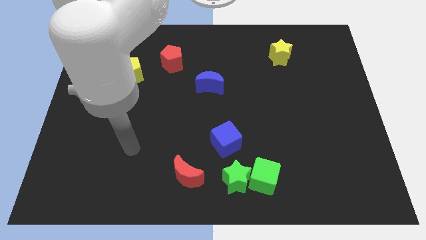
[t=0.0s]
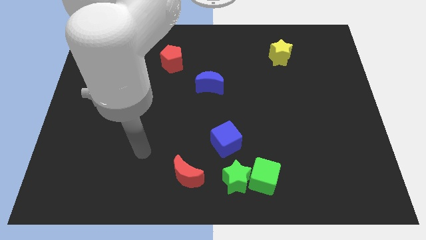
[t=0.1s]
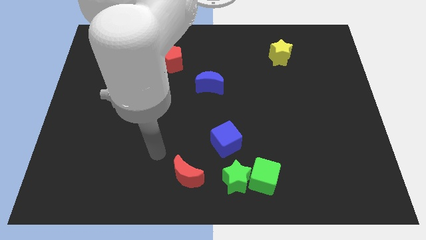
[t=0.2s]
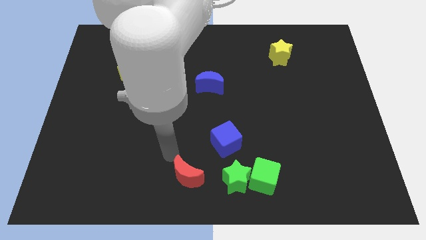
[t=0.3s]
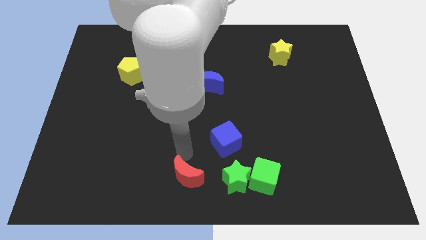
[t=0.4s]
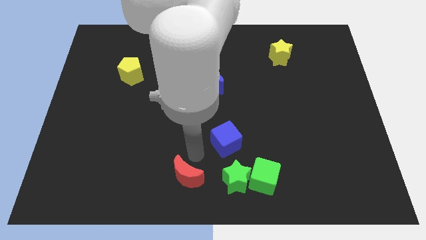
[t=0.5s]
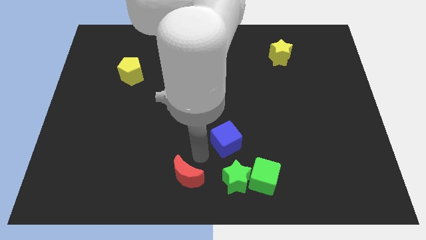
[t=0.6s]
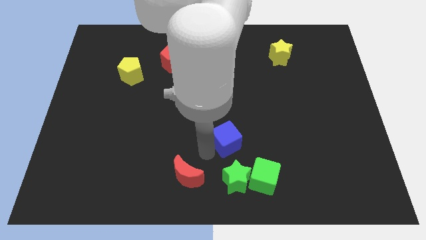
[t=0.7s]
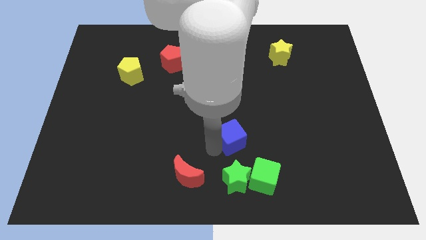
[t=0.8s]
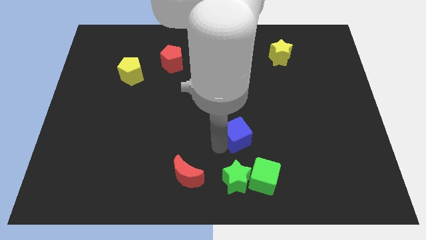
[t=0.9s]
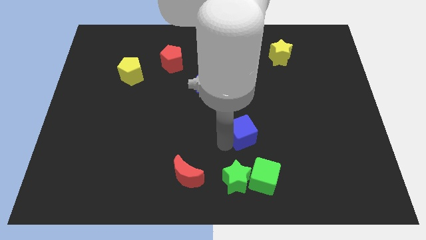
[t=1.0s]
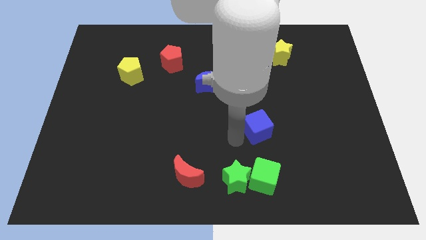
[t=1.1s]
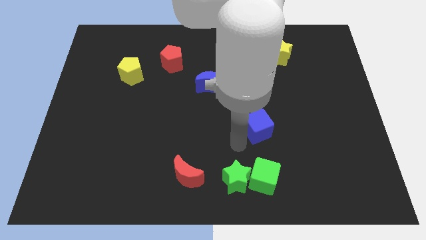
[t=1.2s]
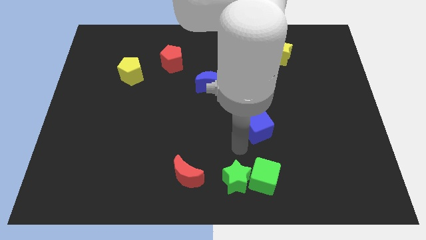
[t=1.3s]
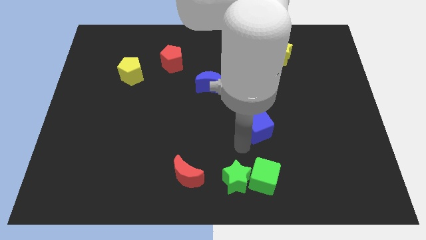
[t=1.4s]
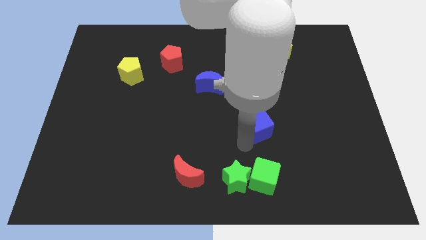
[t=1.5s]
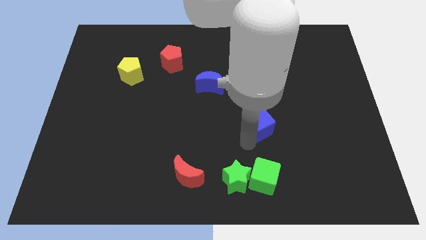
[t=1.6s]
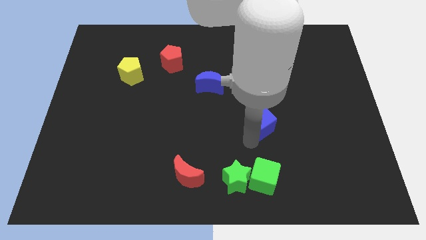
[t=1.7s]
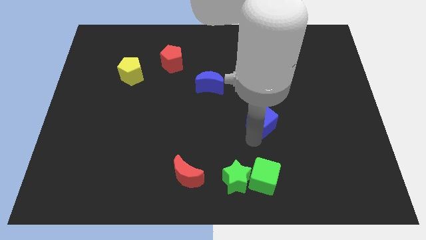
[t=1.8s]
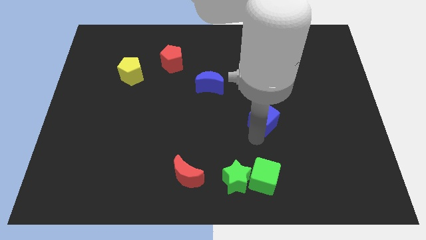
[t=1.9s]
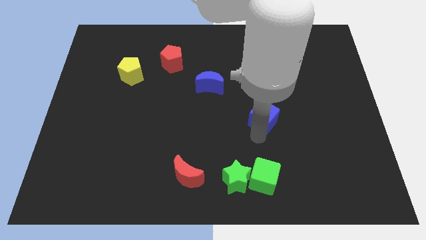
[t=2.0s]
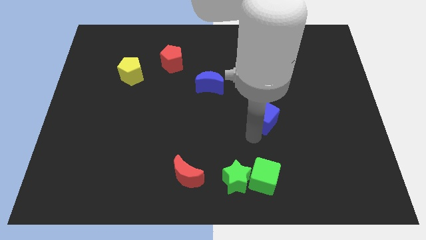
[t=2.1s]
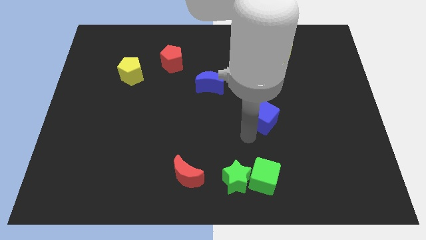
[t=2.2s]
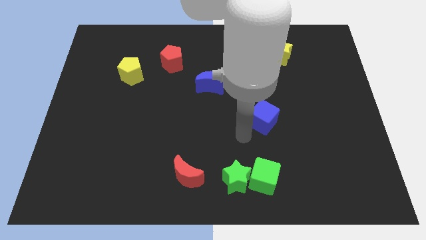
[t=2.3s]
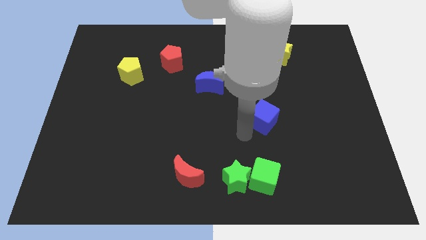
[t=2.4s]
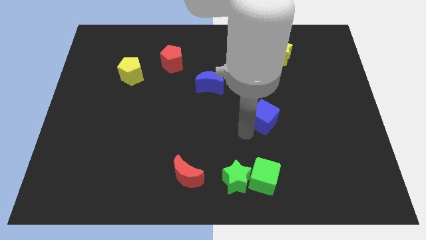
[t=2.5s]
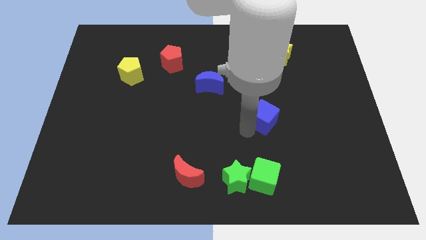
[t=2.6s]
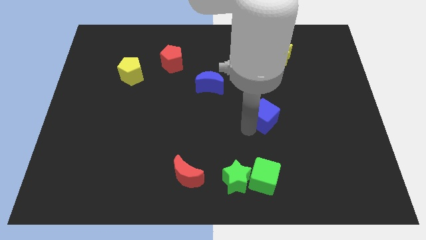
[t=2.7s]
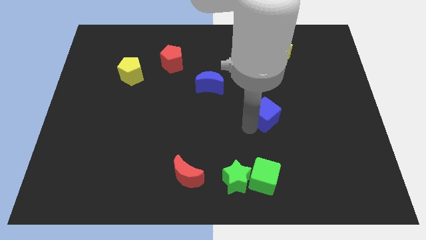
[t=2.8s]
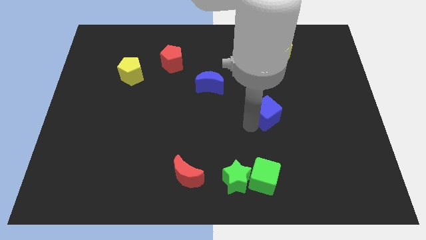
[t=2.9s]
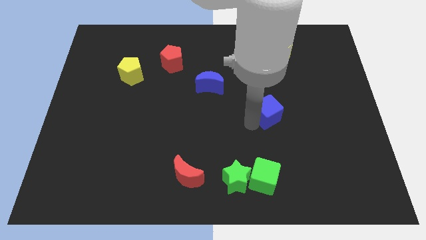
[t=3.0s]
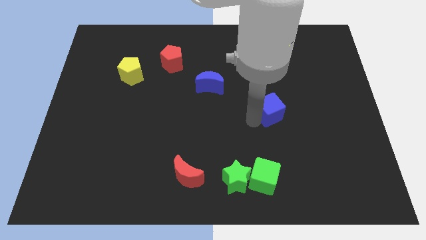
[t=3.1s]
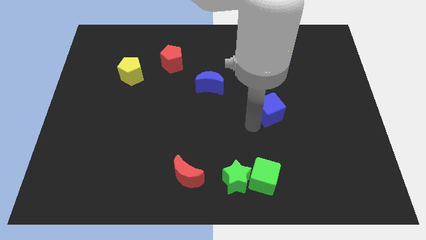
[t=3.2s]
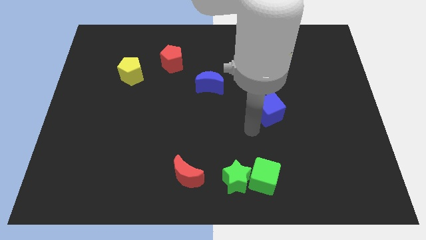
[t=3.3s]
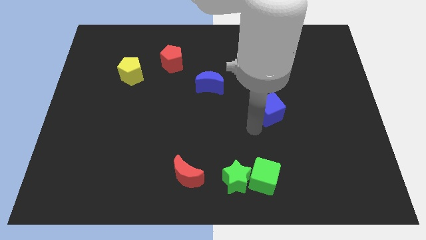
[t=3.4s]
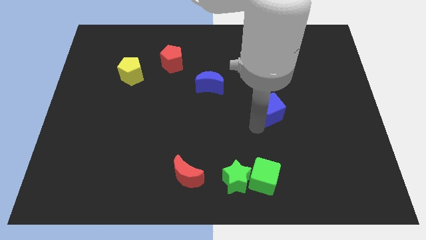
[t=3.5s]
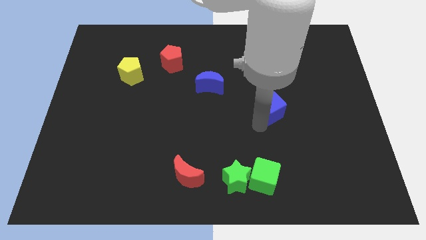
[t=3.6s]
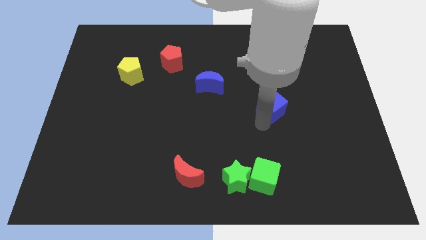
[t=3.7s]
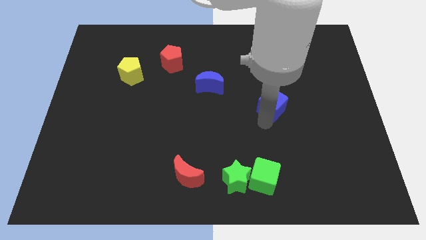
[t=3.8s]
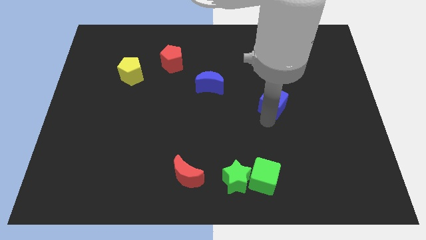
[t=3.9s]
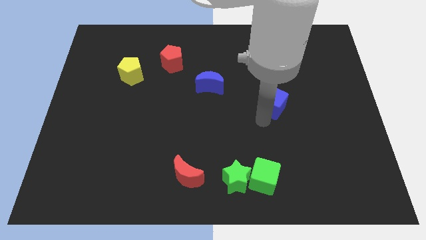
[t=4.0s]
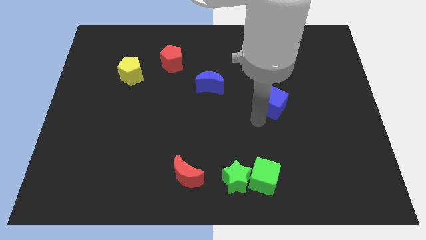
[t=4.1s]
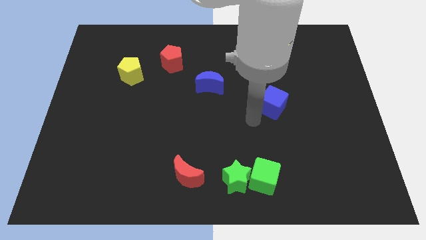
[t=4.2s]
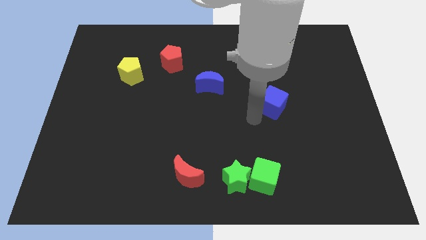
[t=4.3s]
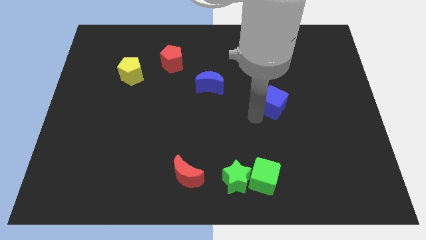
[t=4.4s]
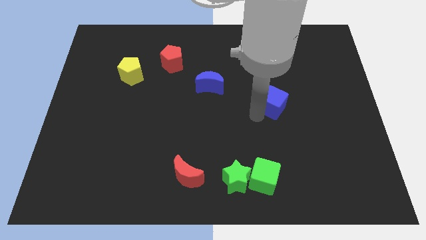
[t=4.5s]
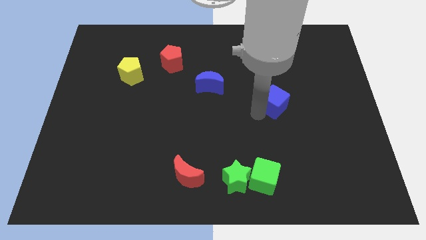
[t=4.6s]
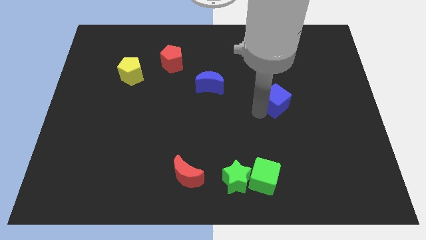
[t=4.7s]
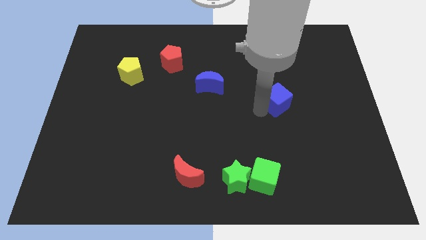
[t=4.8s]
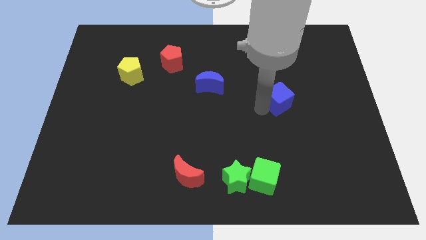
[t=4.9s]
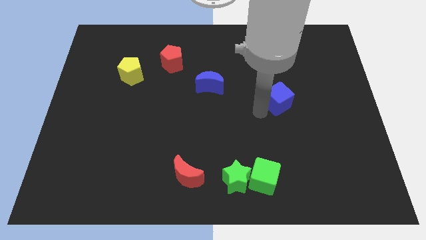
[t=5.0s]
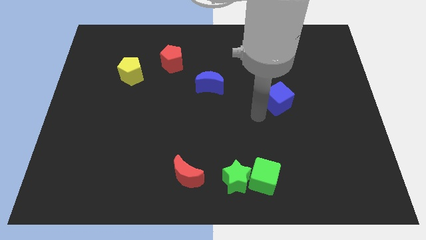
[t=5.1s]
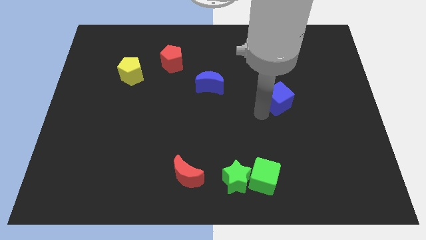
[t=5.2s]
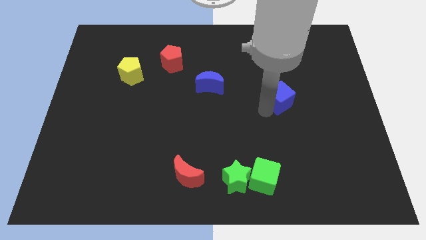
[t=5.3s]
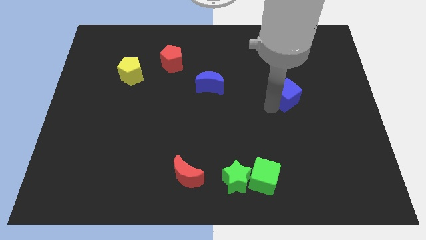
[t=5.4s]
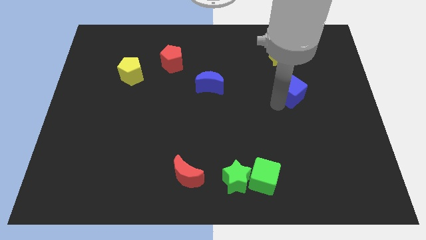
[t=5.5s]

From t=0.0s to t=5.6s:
push the blue cube up and right

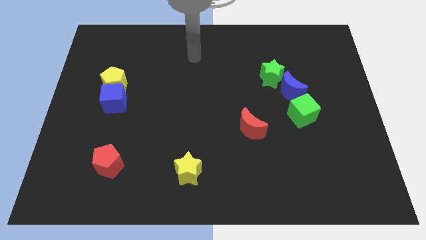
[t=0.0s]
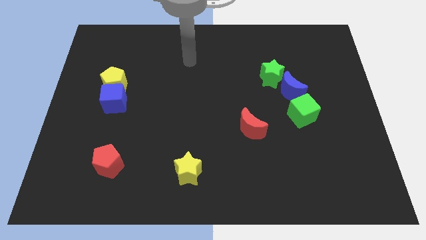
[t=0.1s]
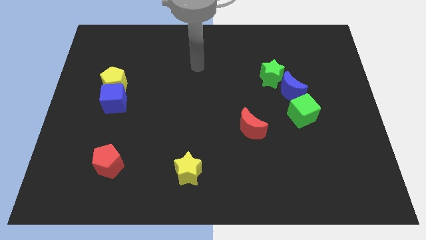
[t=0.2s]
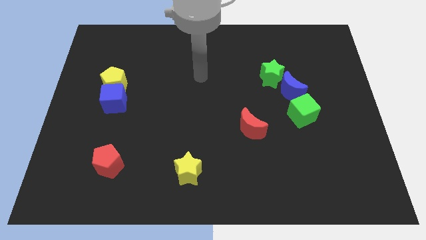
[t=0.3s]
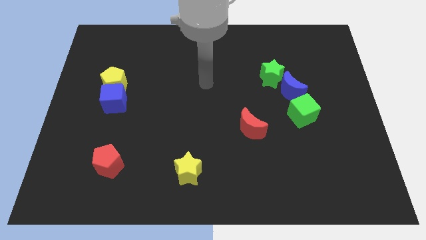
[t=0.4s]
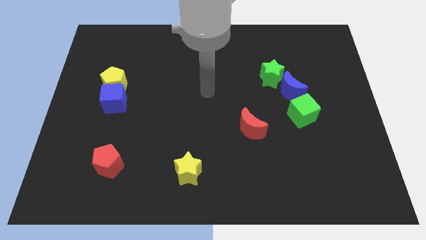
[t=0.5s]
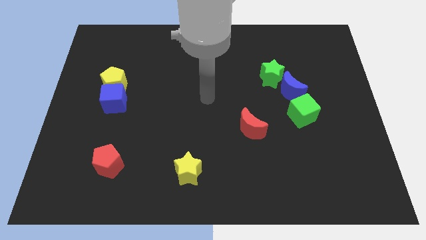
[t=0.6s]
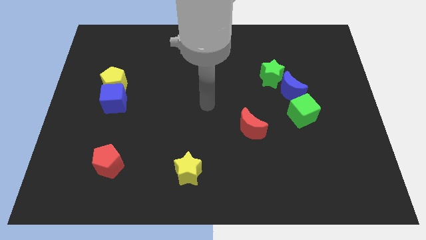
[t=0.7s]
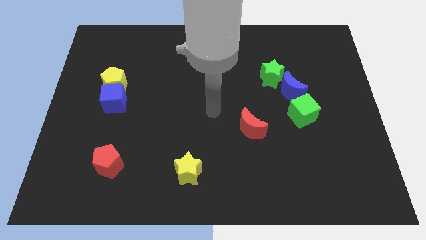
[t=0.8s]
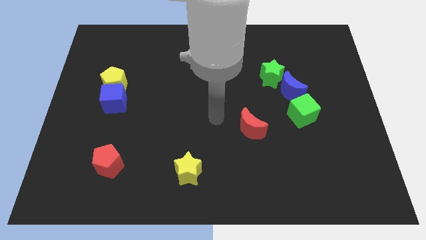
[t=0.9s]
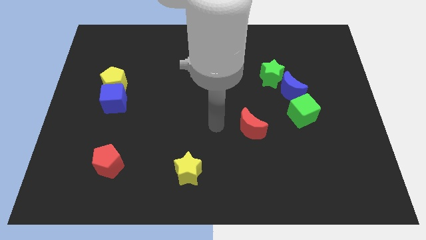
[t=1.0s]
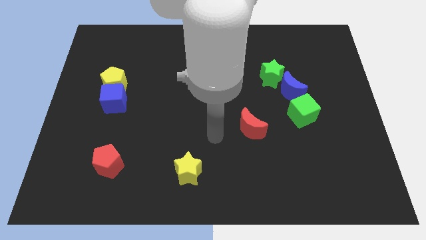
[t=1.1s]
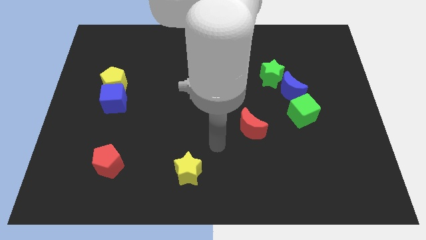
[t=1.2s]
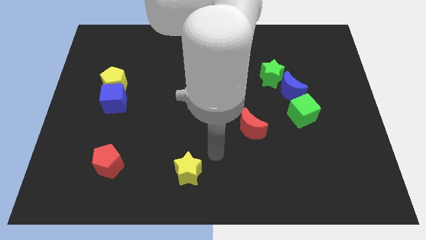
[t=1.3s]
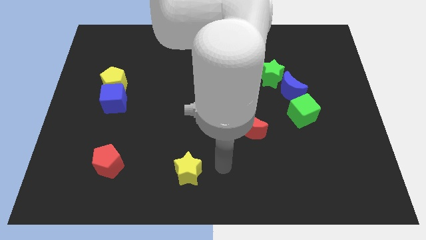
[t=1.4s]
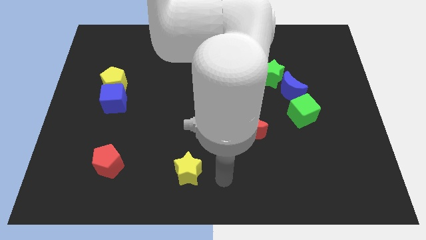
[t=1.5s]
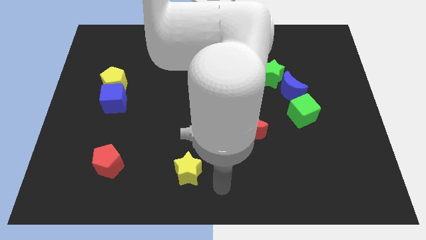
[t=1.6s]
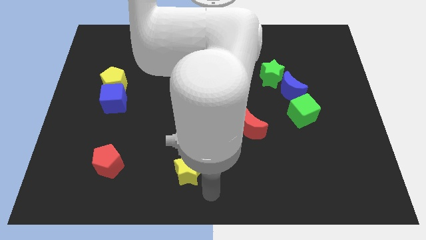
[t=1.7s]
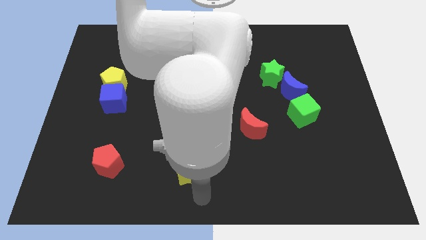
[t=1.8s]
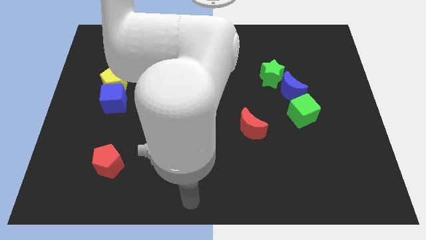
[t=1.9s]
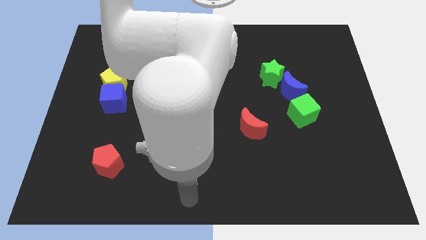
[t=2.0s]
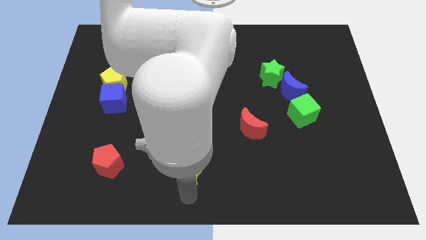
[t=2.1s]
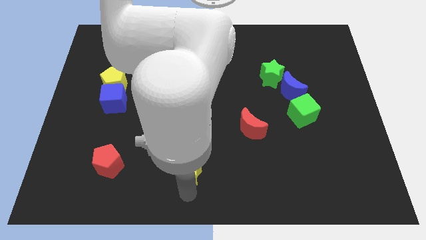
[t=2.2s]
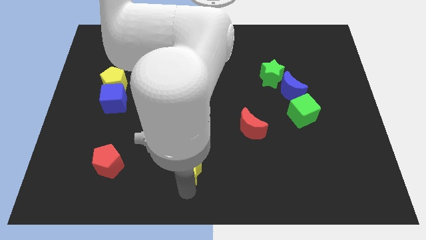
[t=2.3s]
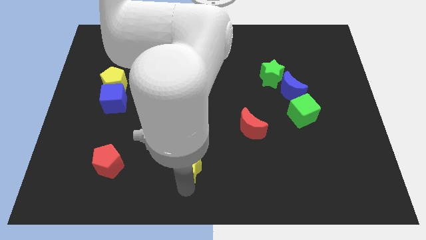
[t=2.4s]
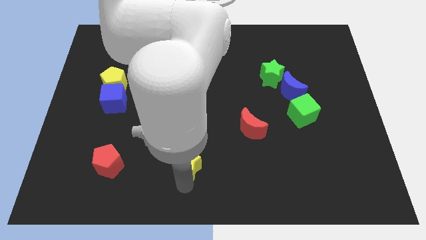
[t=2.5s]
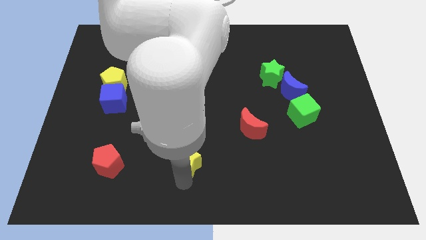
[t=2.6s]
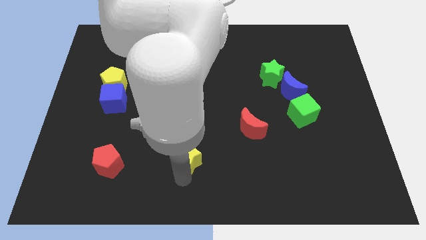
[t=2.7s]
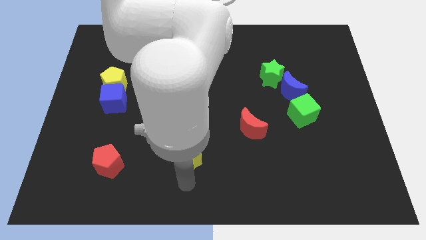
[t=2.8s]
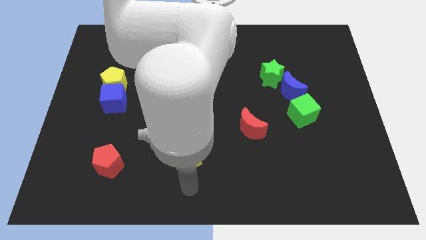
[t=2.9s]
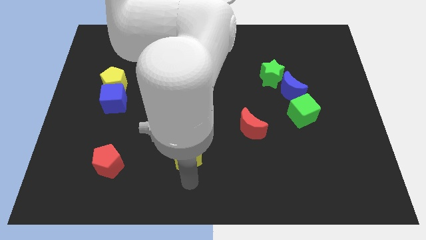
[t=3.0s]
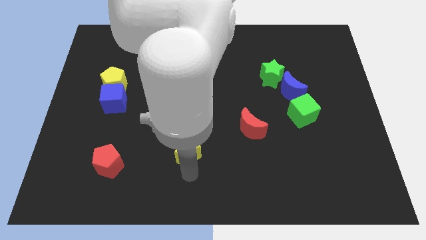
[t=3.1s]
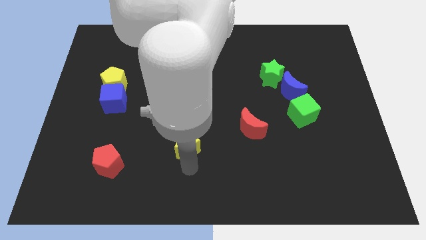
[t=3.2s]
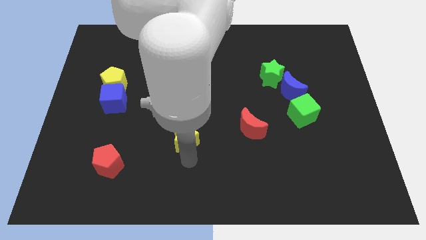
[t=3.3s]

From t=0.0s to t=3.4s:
slightly slide the yellow star upwards
